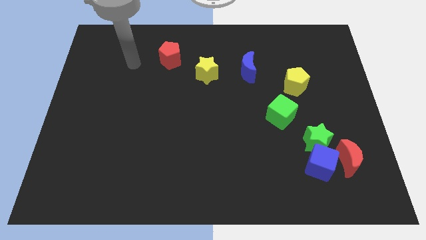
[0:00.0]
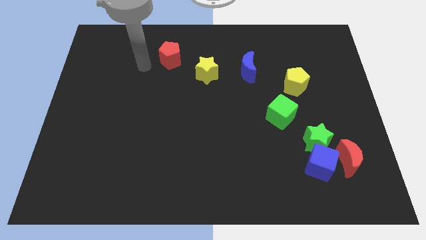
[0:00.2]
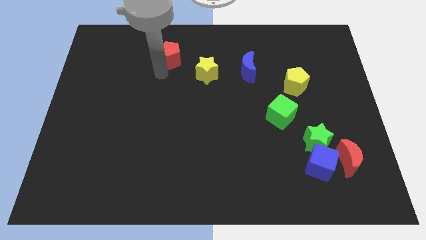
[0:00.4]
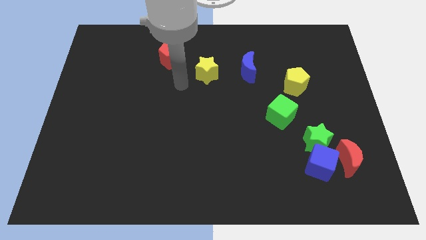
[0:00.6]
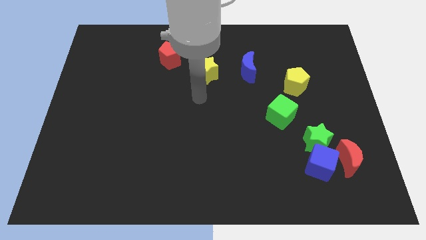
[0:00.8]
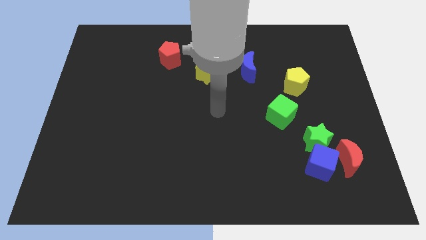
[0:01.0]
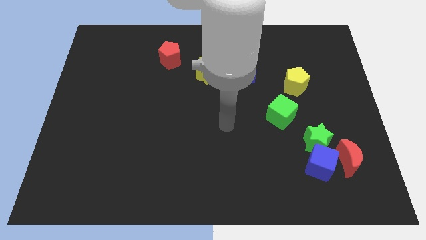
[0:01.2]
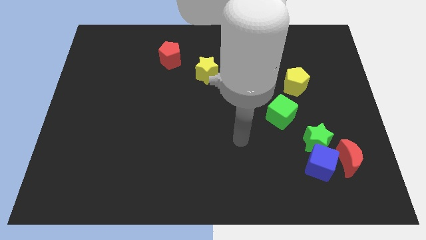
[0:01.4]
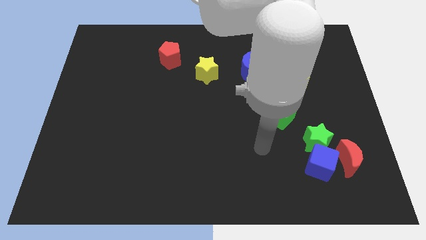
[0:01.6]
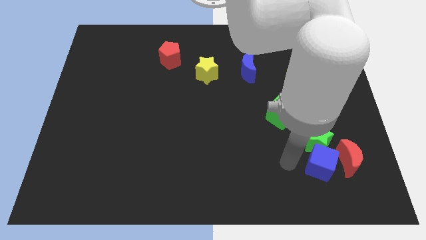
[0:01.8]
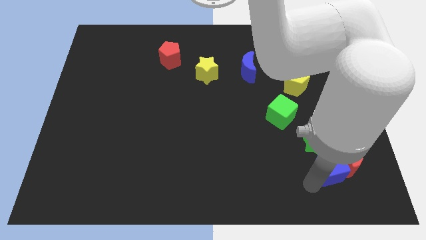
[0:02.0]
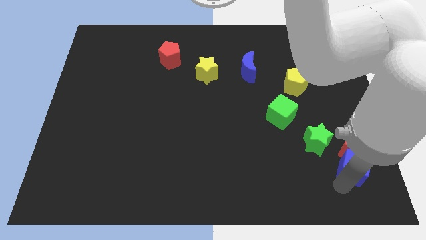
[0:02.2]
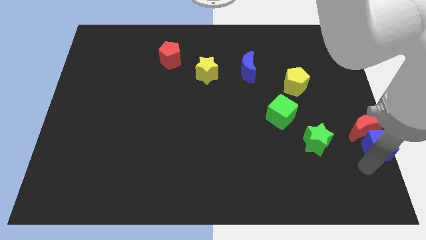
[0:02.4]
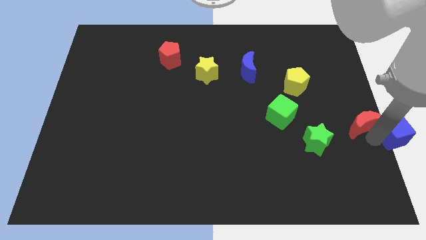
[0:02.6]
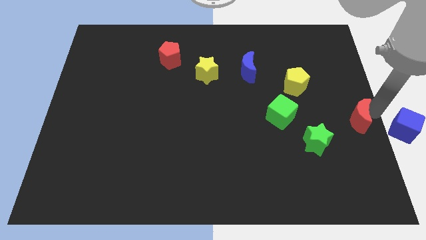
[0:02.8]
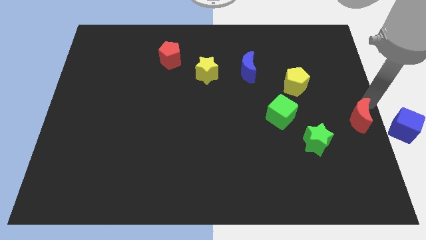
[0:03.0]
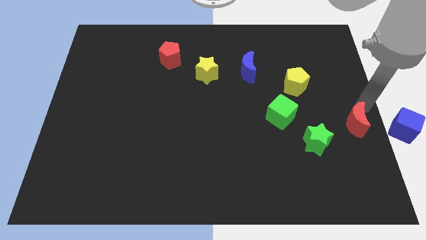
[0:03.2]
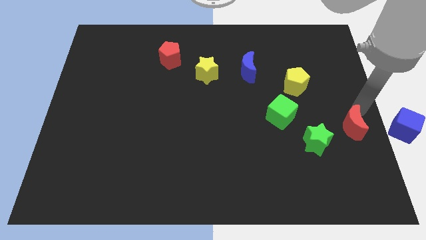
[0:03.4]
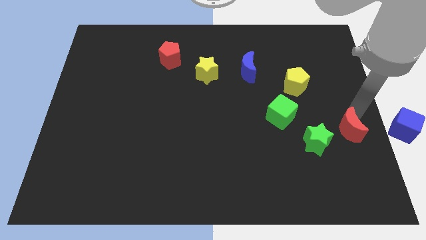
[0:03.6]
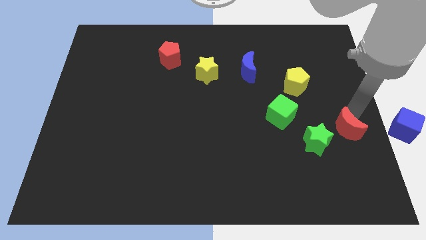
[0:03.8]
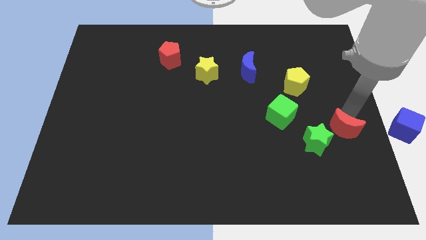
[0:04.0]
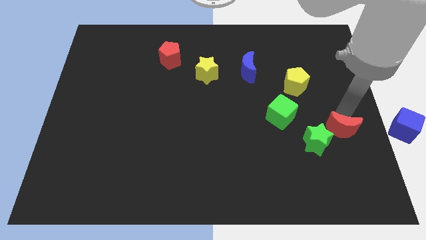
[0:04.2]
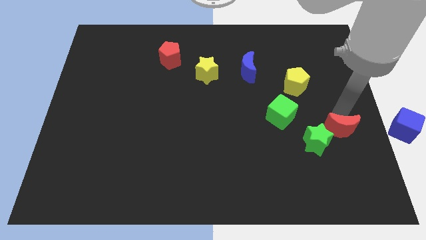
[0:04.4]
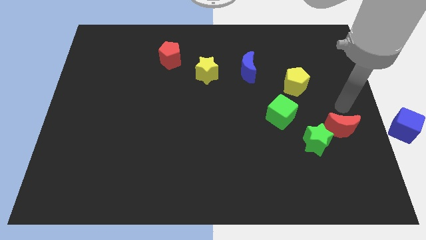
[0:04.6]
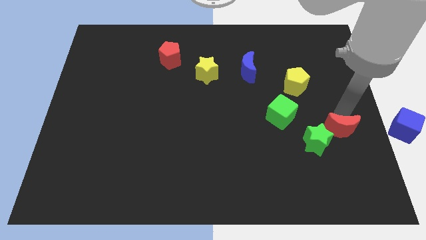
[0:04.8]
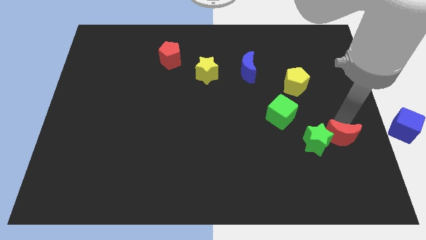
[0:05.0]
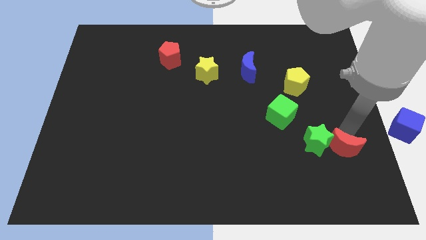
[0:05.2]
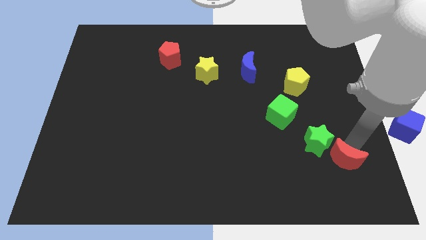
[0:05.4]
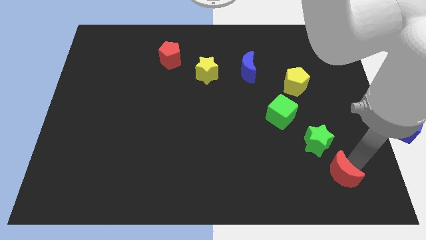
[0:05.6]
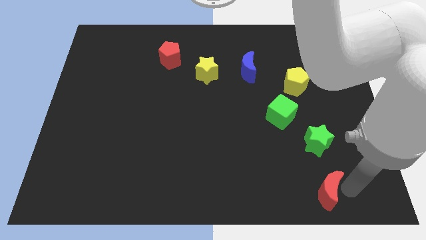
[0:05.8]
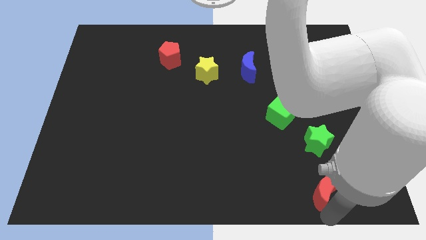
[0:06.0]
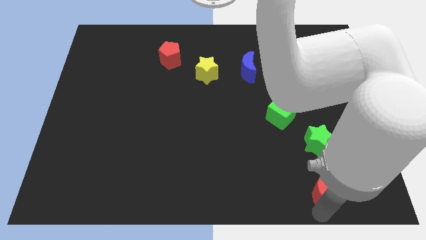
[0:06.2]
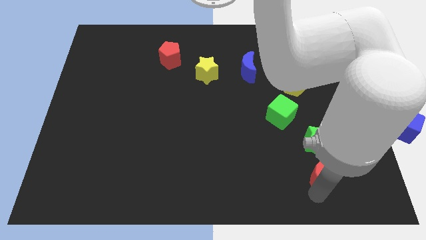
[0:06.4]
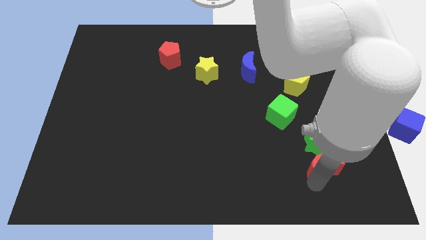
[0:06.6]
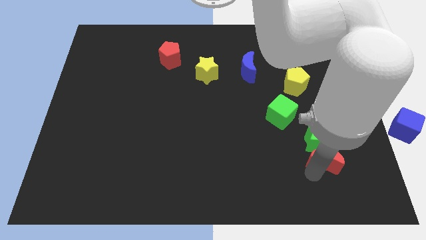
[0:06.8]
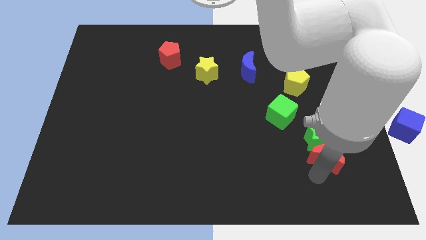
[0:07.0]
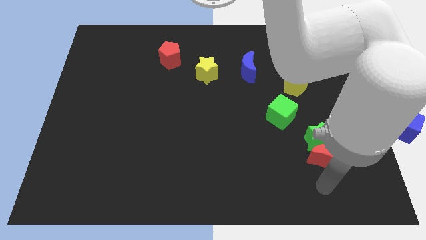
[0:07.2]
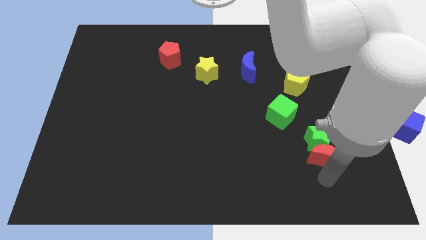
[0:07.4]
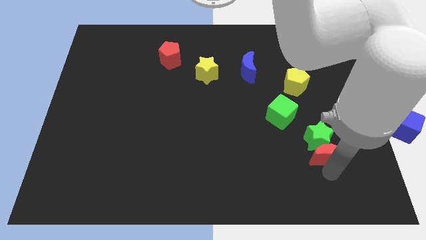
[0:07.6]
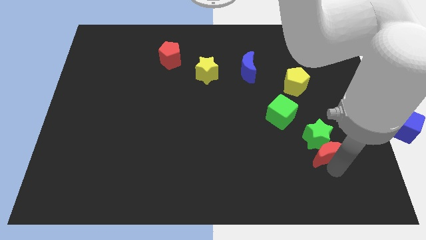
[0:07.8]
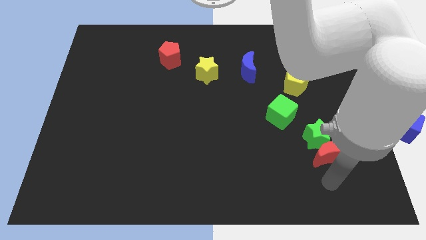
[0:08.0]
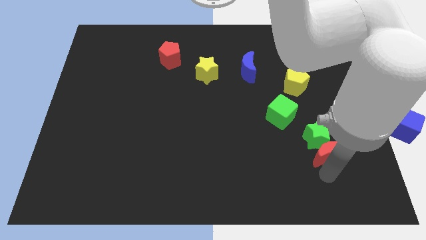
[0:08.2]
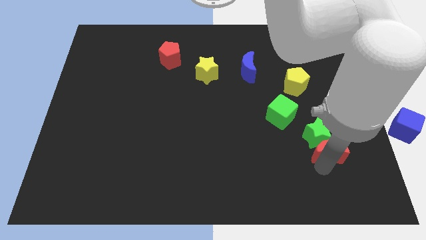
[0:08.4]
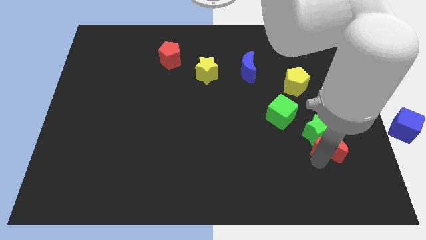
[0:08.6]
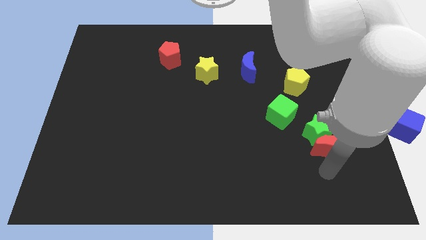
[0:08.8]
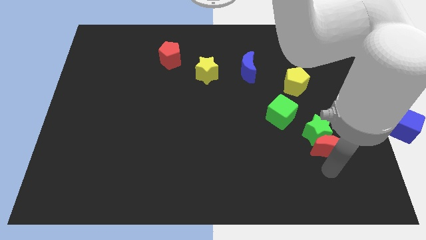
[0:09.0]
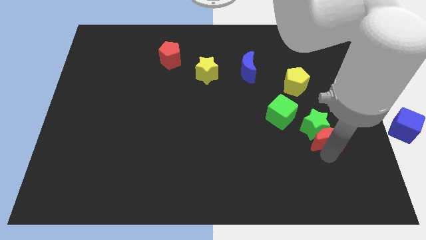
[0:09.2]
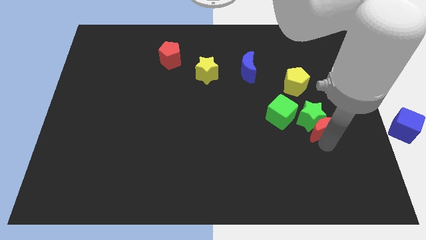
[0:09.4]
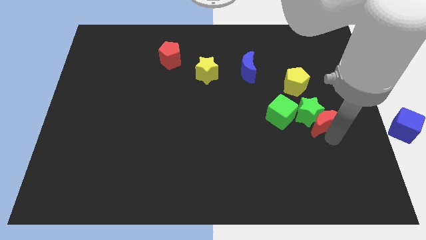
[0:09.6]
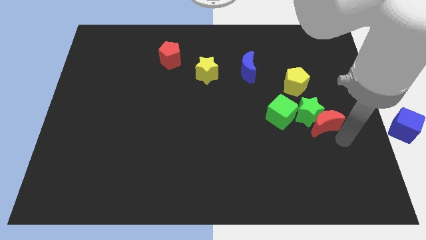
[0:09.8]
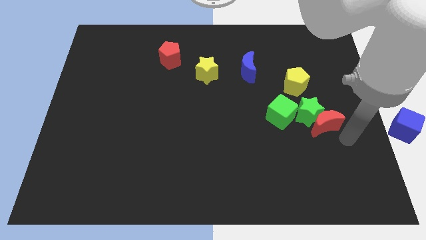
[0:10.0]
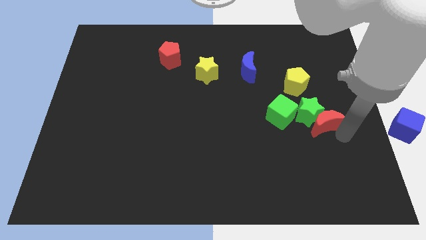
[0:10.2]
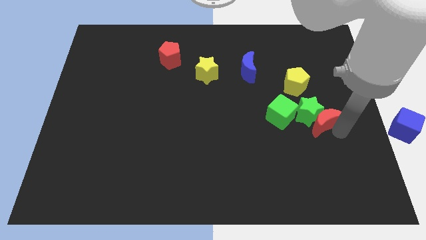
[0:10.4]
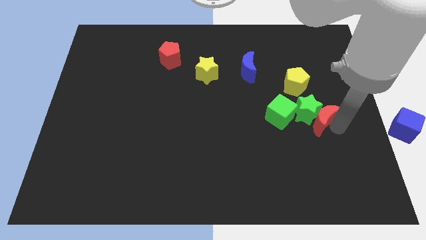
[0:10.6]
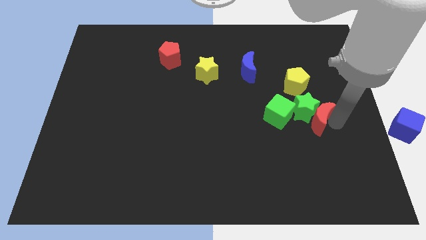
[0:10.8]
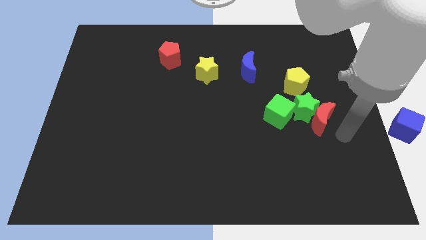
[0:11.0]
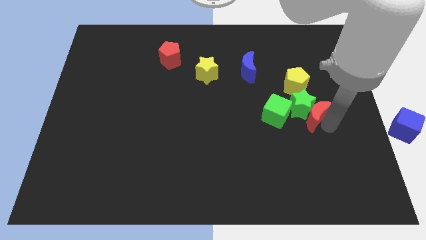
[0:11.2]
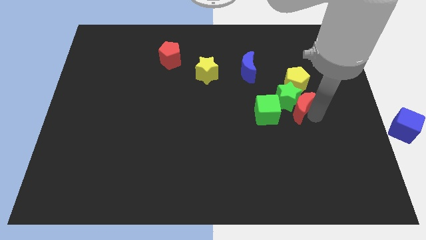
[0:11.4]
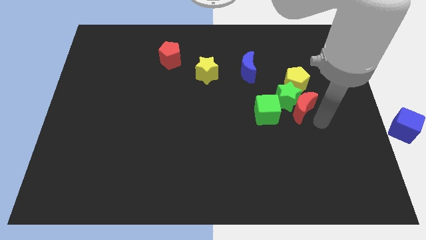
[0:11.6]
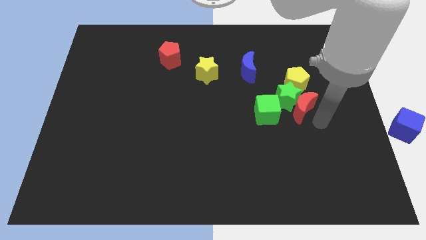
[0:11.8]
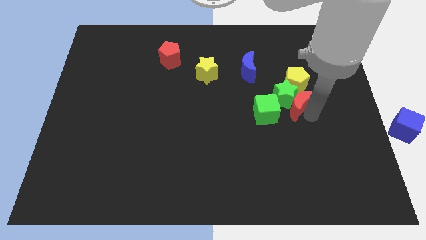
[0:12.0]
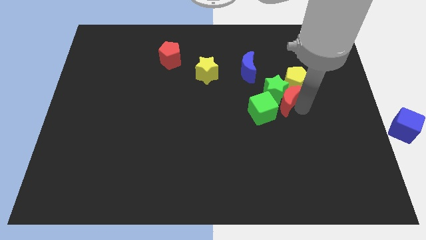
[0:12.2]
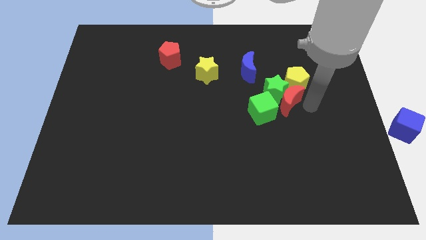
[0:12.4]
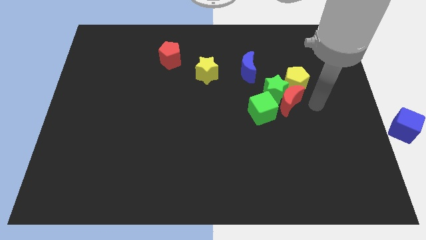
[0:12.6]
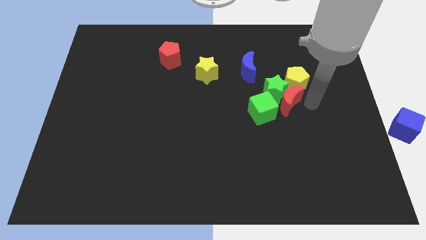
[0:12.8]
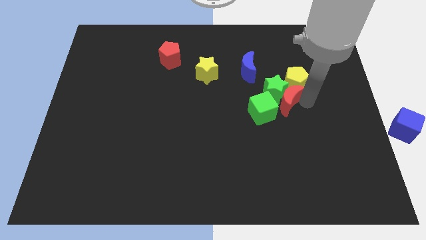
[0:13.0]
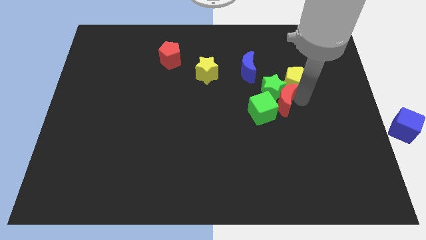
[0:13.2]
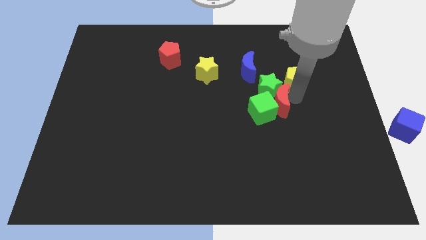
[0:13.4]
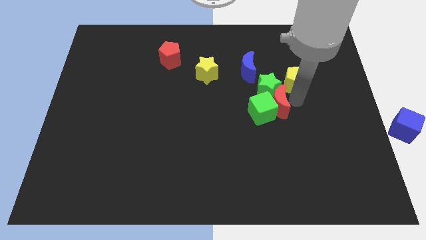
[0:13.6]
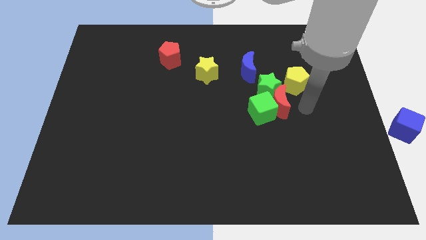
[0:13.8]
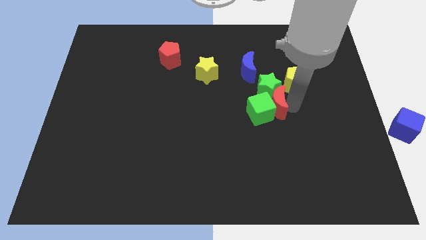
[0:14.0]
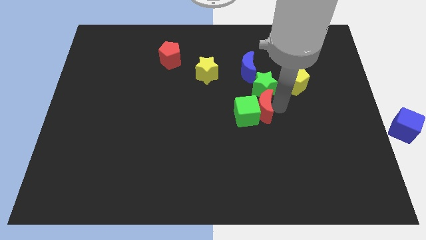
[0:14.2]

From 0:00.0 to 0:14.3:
push the red moon to the center of the board
